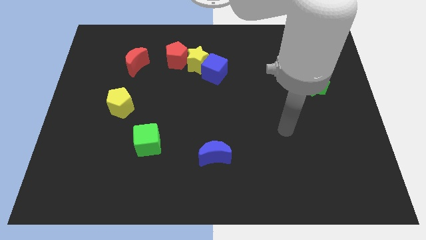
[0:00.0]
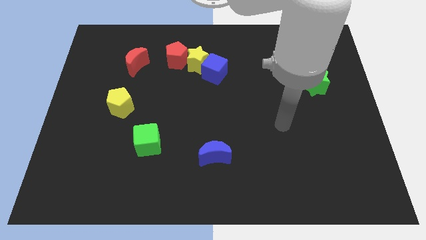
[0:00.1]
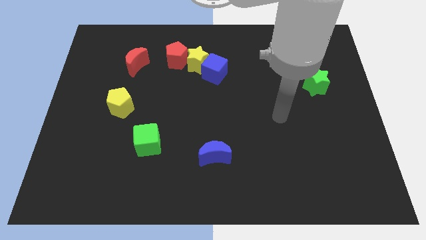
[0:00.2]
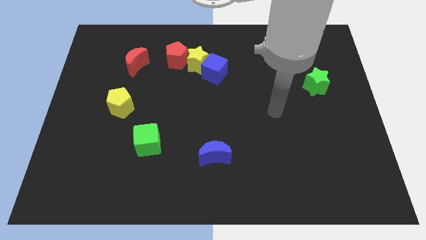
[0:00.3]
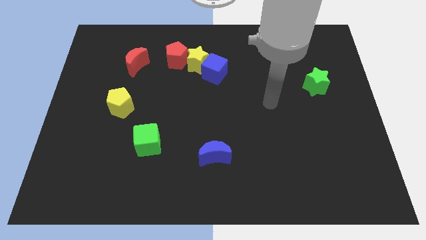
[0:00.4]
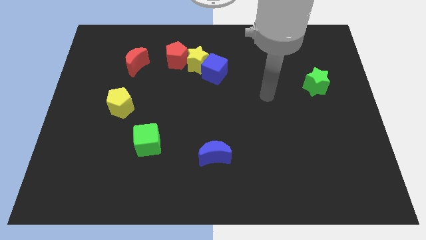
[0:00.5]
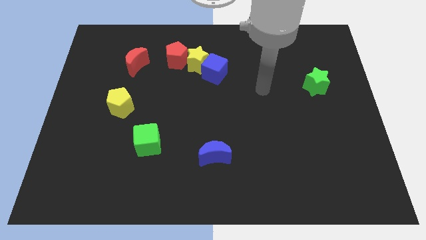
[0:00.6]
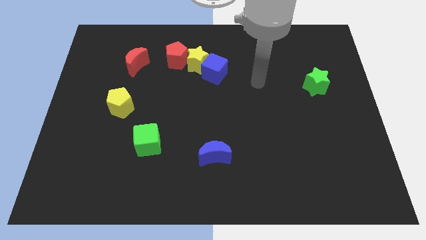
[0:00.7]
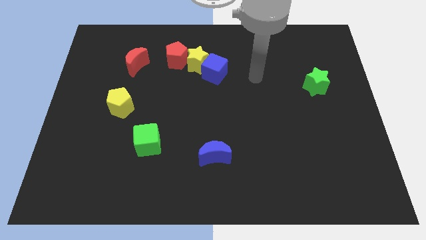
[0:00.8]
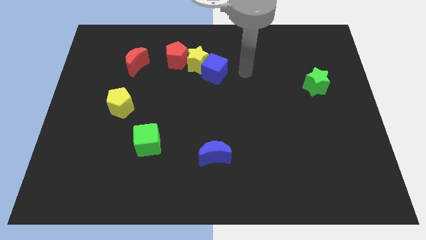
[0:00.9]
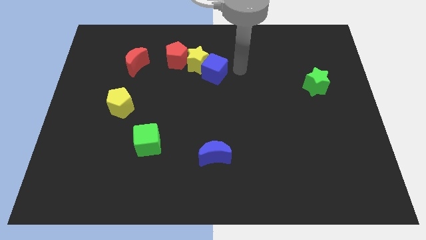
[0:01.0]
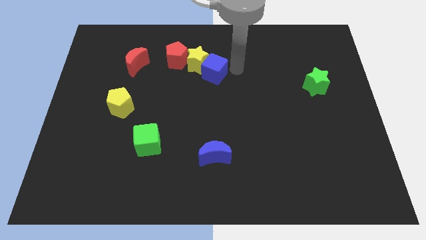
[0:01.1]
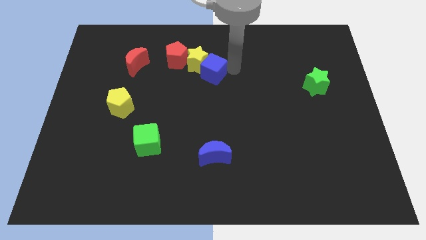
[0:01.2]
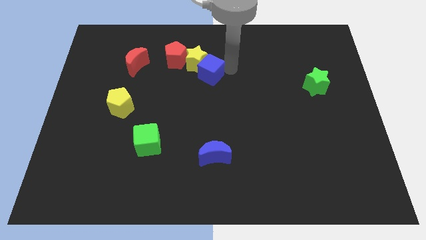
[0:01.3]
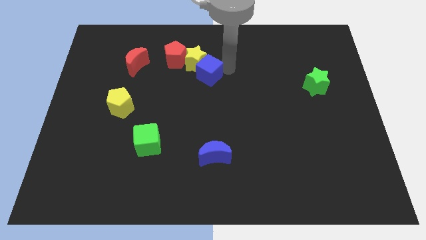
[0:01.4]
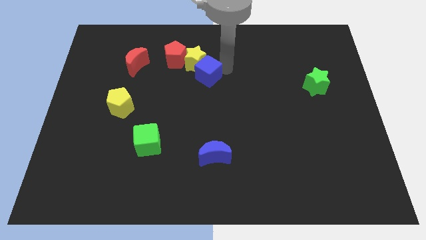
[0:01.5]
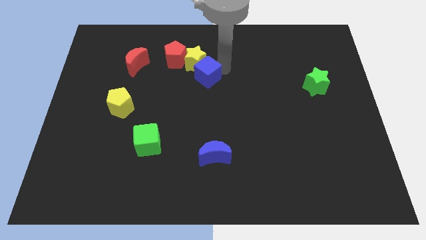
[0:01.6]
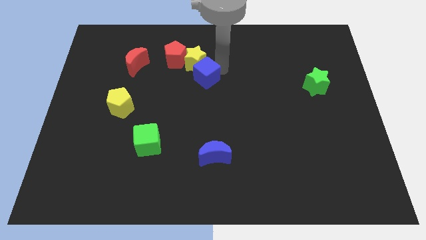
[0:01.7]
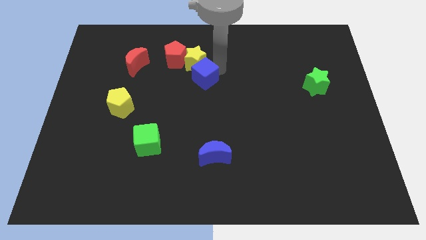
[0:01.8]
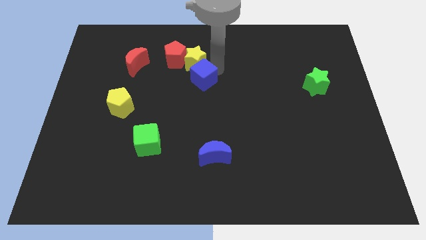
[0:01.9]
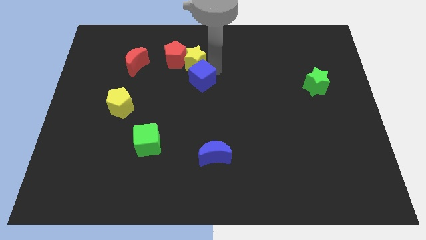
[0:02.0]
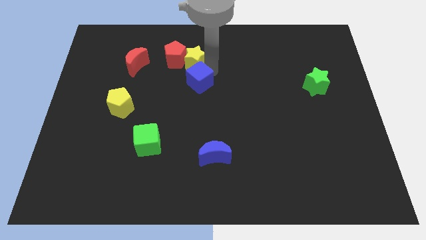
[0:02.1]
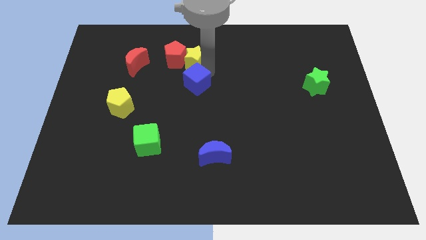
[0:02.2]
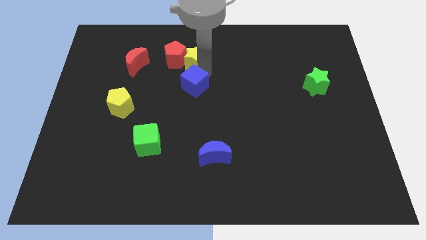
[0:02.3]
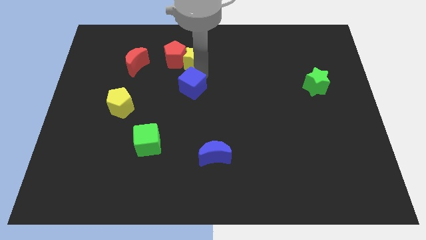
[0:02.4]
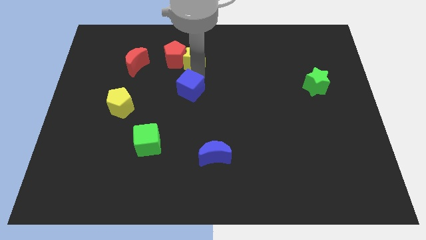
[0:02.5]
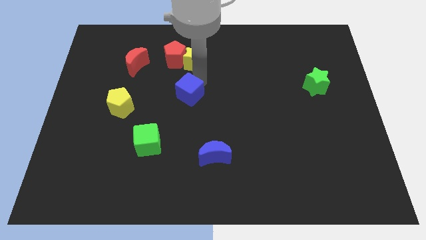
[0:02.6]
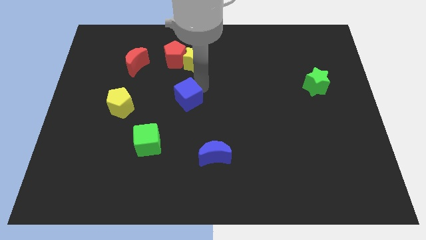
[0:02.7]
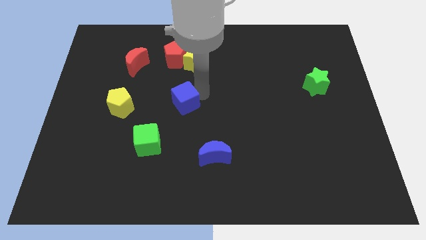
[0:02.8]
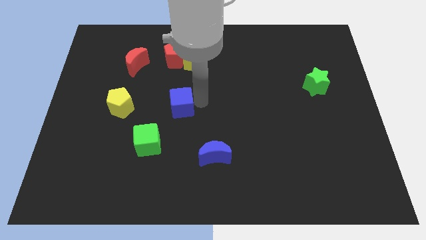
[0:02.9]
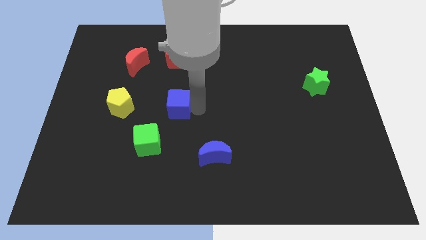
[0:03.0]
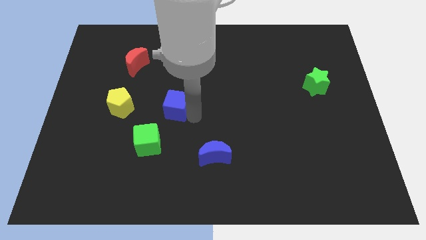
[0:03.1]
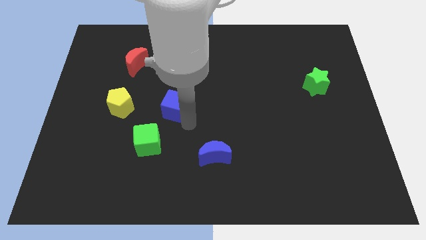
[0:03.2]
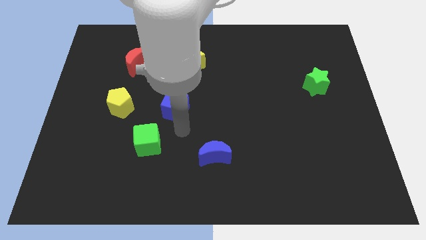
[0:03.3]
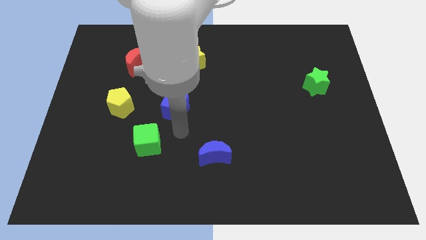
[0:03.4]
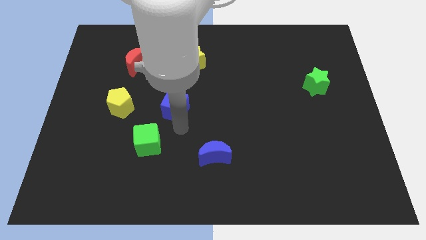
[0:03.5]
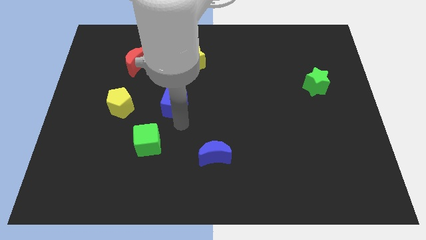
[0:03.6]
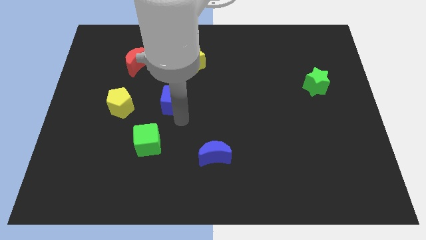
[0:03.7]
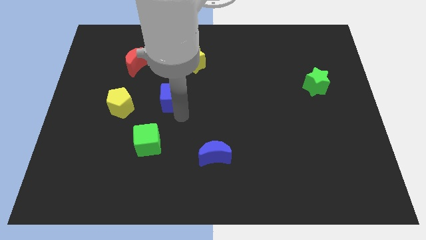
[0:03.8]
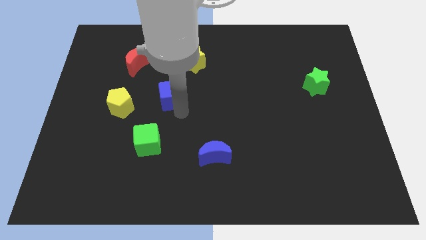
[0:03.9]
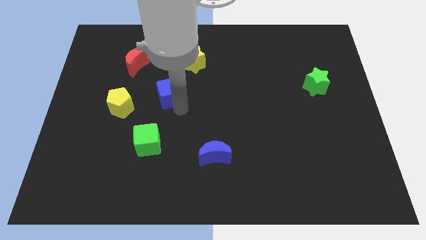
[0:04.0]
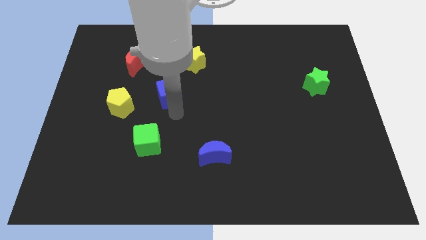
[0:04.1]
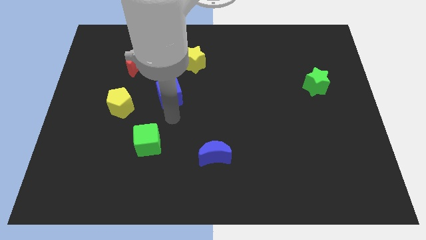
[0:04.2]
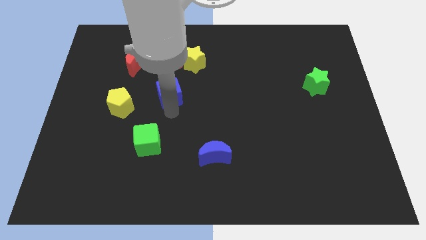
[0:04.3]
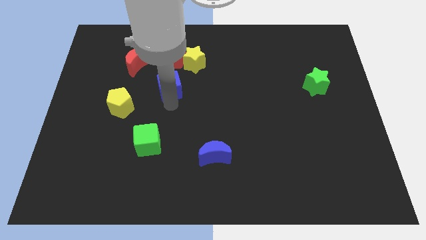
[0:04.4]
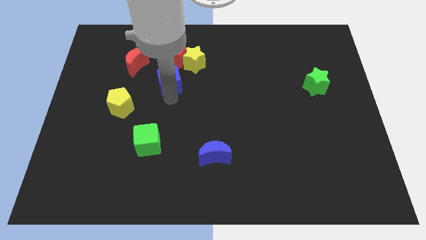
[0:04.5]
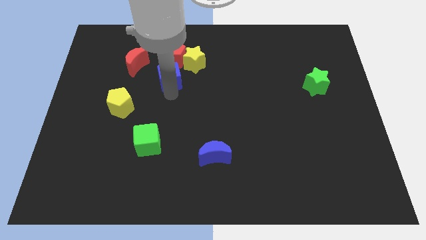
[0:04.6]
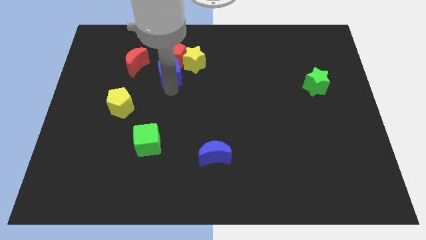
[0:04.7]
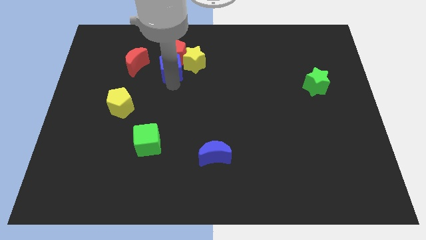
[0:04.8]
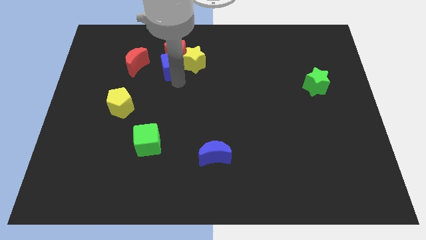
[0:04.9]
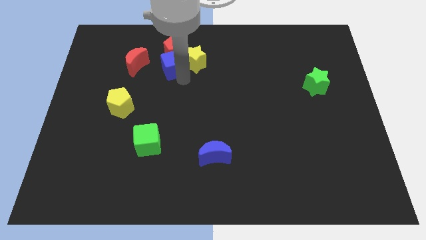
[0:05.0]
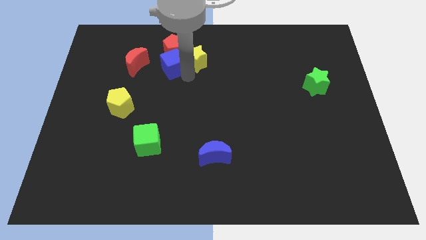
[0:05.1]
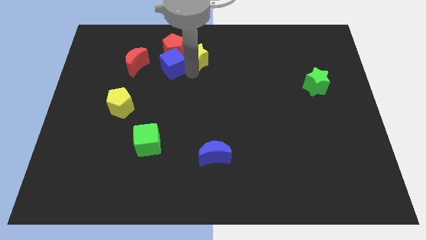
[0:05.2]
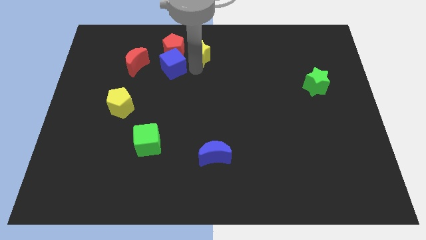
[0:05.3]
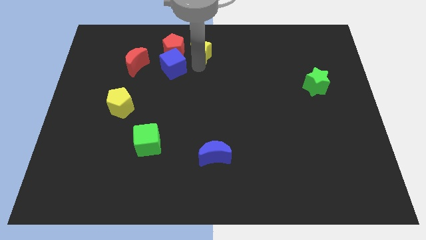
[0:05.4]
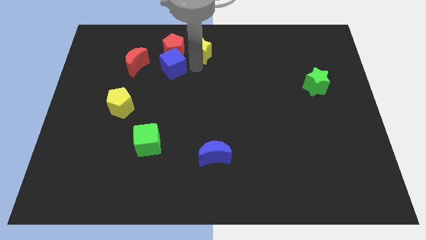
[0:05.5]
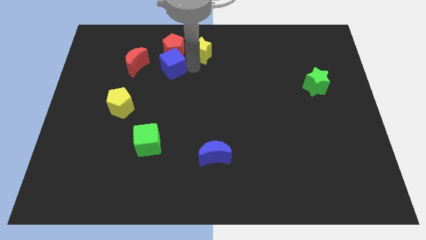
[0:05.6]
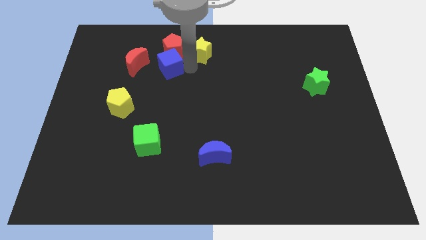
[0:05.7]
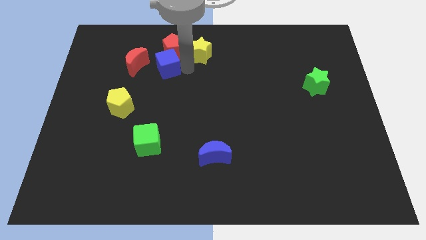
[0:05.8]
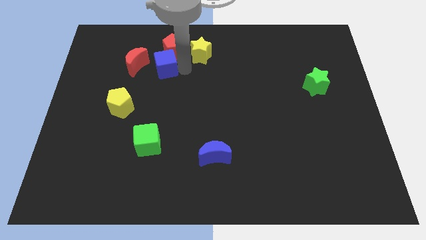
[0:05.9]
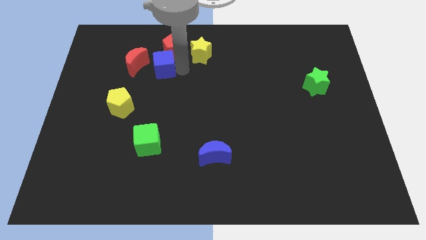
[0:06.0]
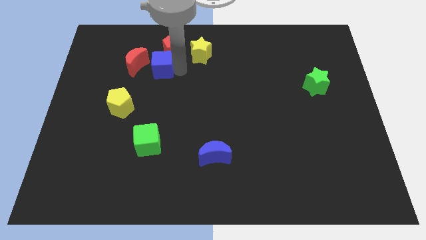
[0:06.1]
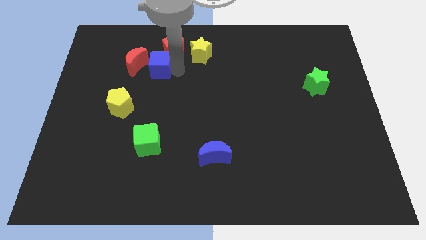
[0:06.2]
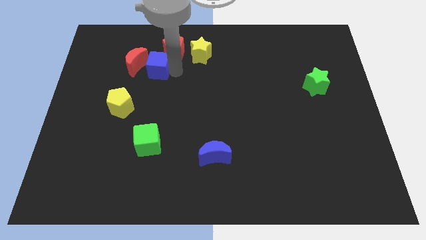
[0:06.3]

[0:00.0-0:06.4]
slide the blue cube next to the red moon

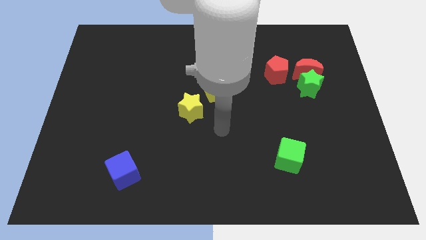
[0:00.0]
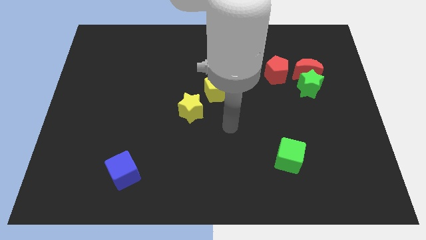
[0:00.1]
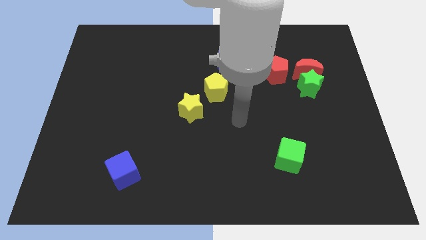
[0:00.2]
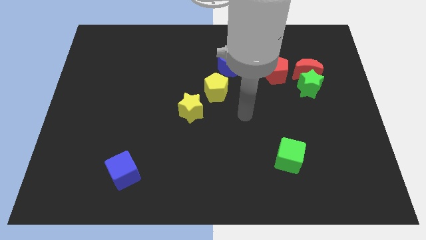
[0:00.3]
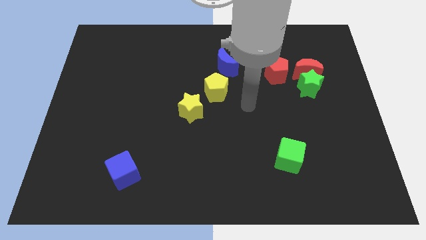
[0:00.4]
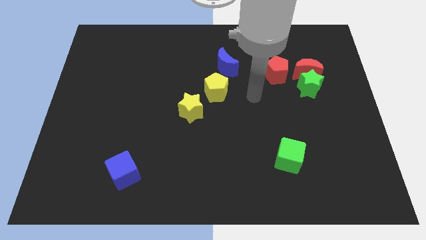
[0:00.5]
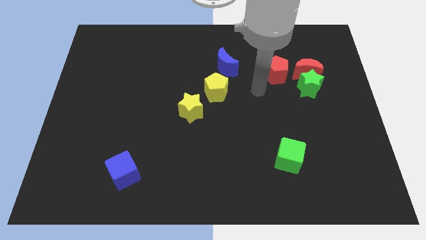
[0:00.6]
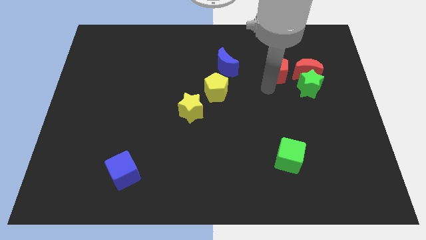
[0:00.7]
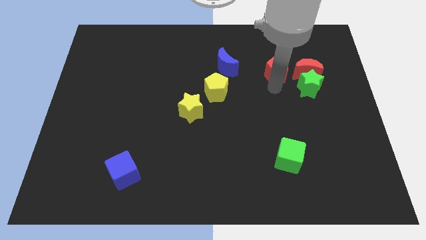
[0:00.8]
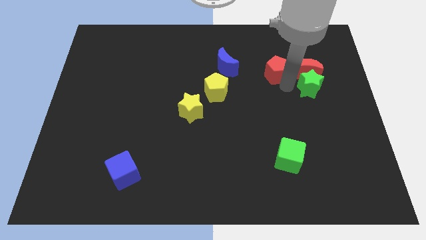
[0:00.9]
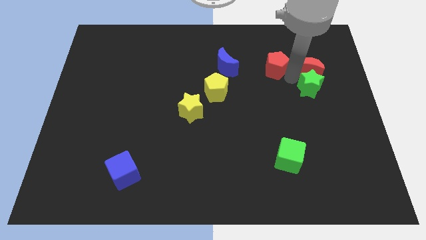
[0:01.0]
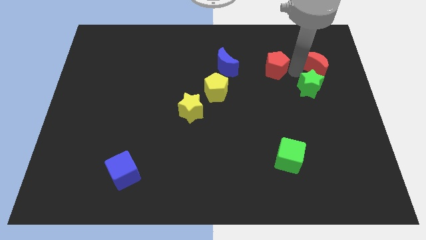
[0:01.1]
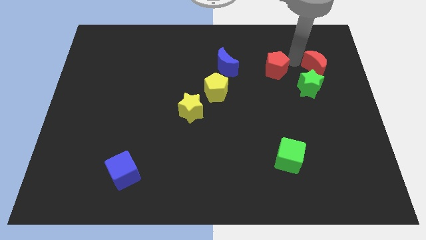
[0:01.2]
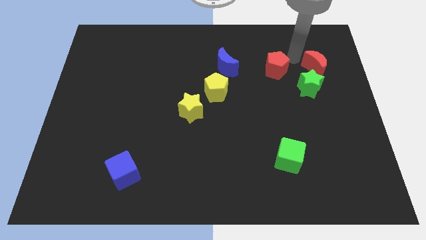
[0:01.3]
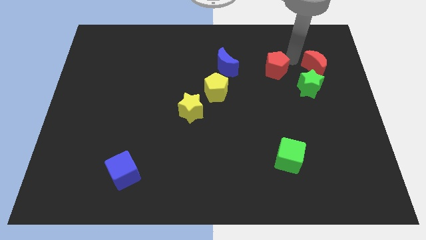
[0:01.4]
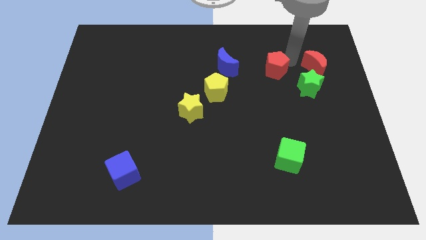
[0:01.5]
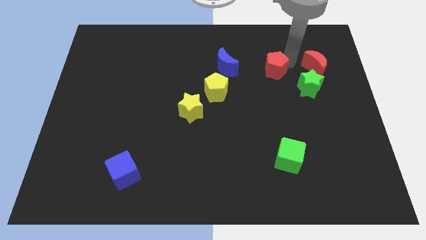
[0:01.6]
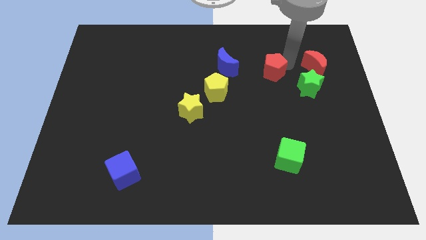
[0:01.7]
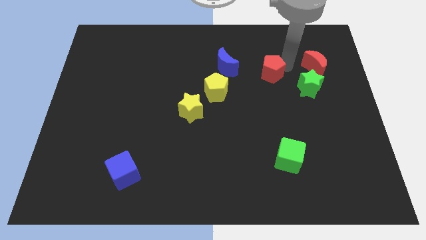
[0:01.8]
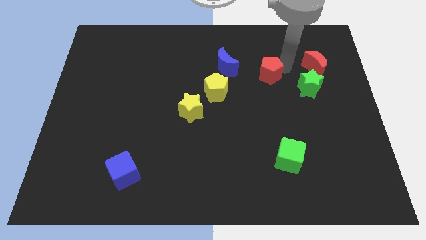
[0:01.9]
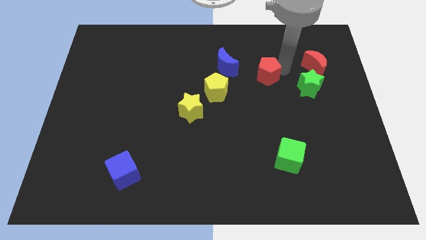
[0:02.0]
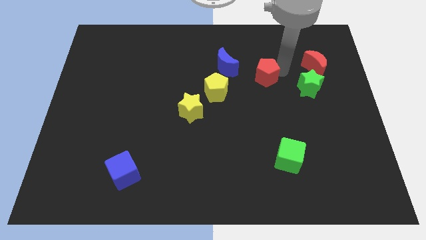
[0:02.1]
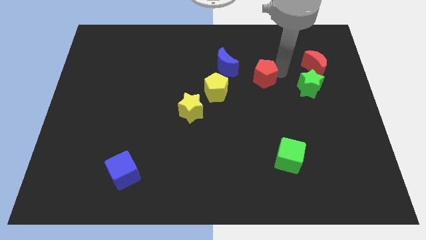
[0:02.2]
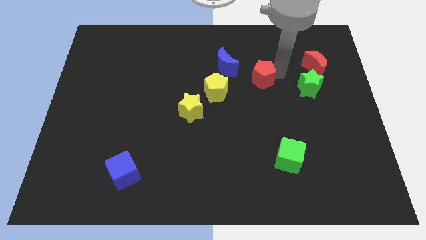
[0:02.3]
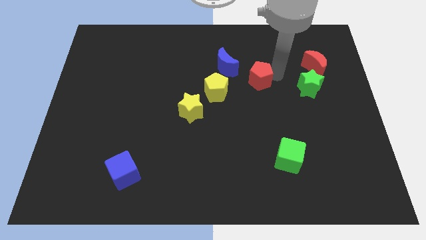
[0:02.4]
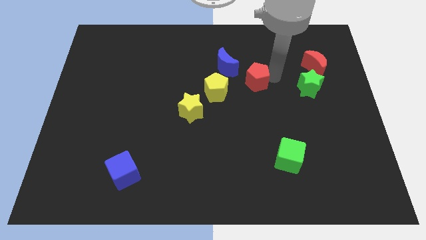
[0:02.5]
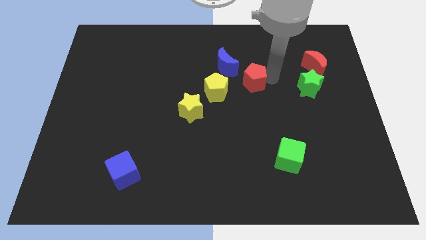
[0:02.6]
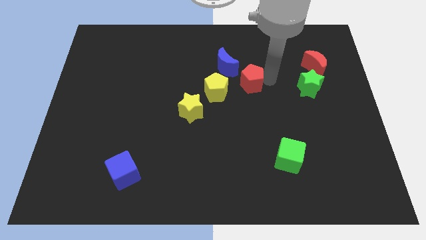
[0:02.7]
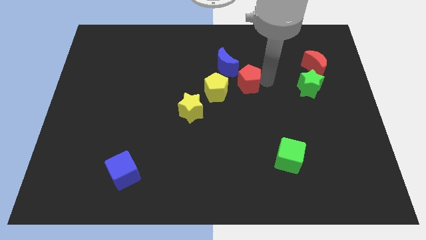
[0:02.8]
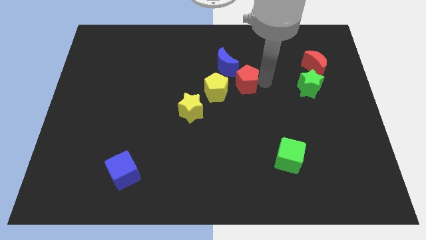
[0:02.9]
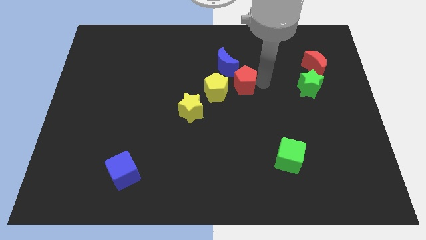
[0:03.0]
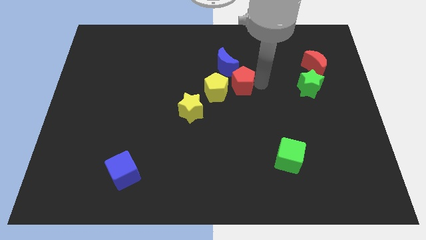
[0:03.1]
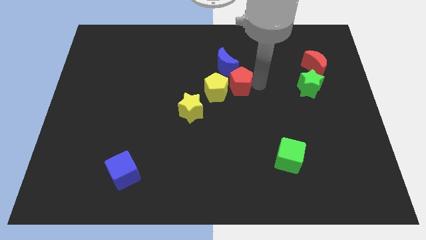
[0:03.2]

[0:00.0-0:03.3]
put the red pentagon towards the yellow pentagon
